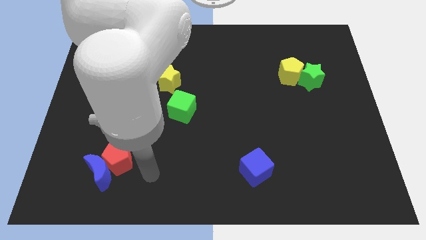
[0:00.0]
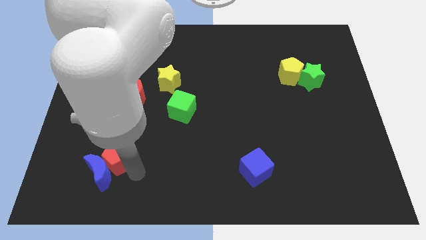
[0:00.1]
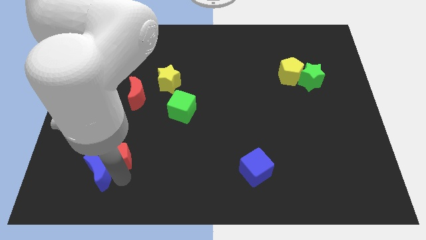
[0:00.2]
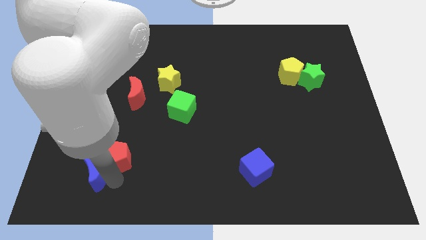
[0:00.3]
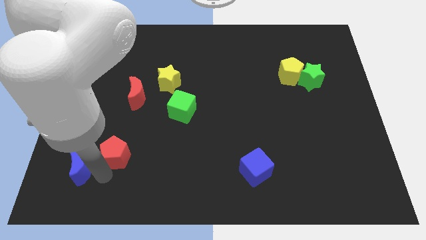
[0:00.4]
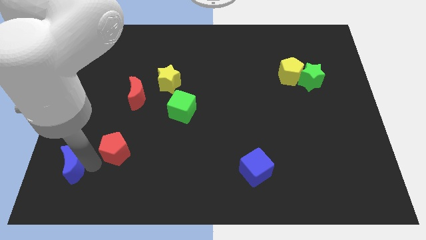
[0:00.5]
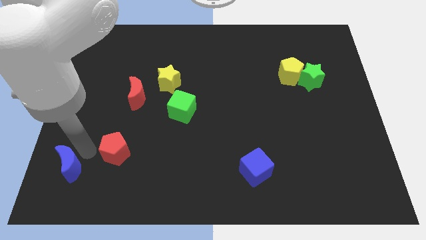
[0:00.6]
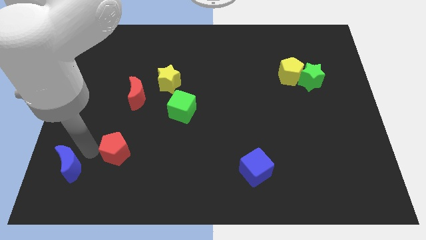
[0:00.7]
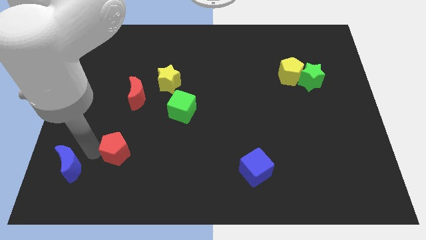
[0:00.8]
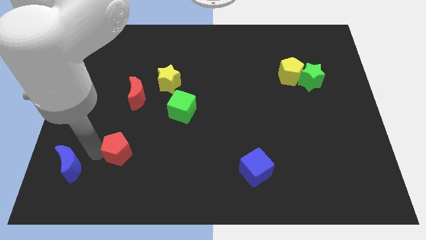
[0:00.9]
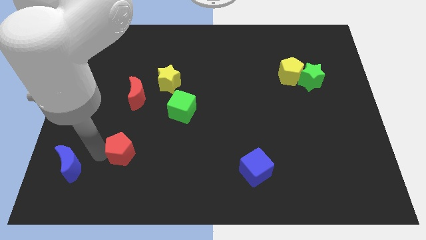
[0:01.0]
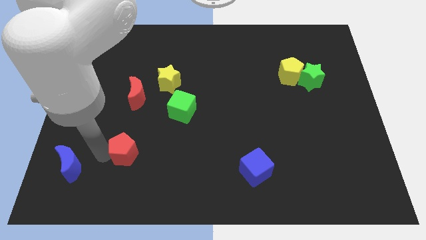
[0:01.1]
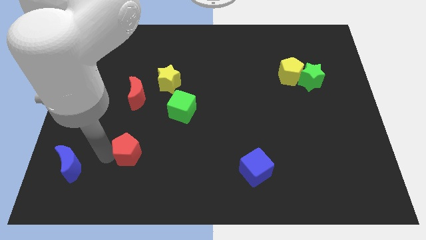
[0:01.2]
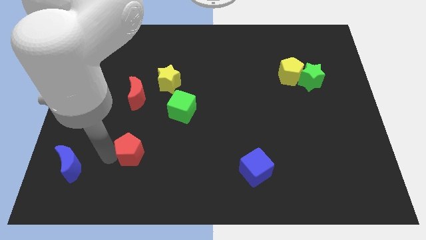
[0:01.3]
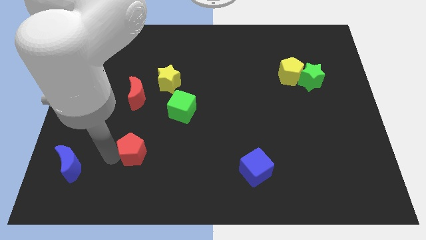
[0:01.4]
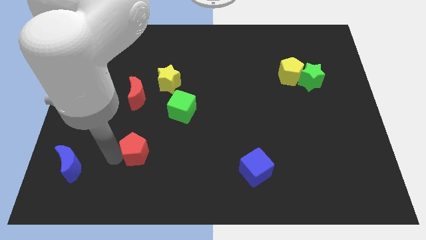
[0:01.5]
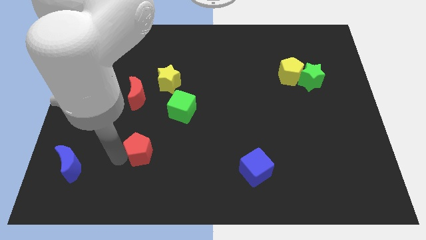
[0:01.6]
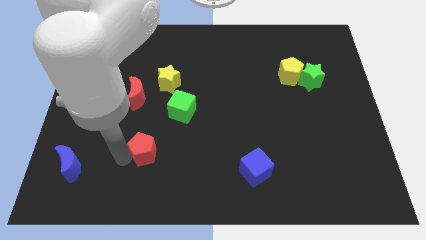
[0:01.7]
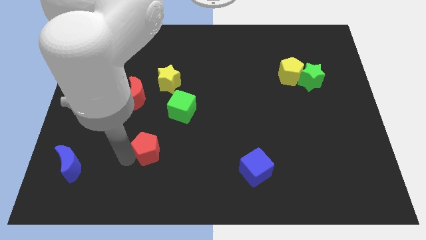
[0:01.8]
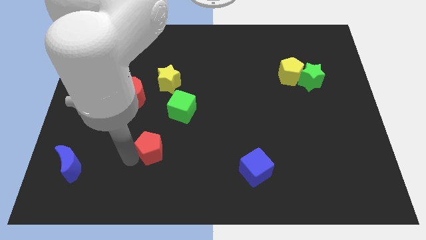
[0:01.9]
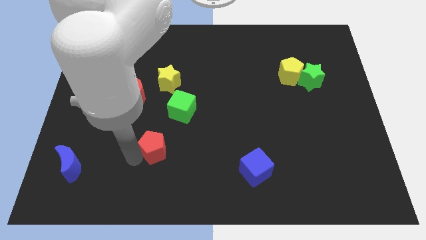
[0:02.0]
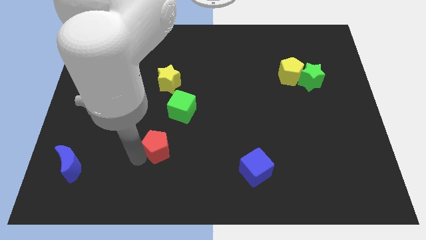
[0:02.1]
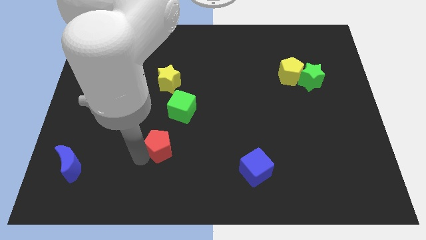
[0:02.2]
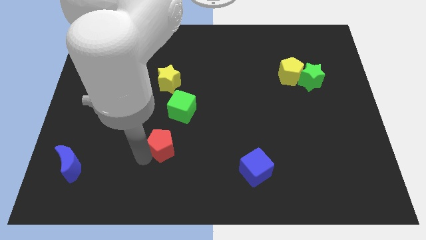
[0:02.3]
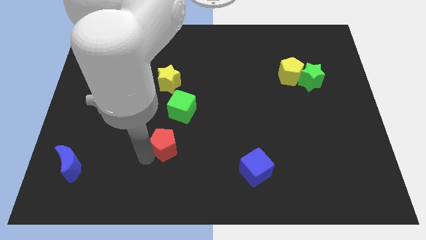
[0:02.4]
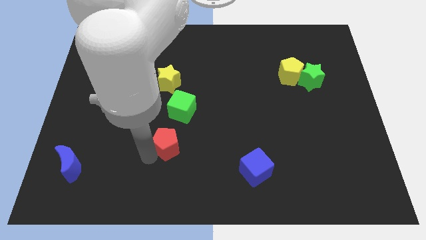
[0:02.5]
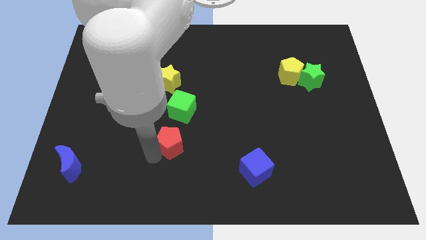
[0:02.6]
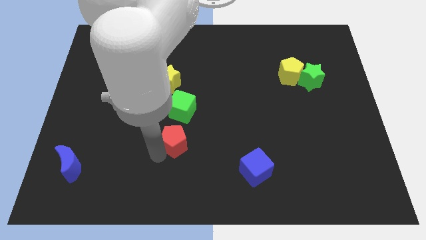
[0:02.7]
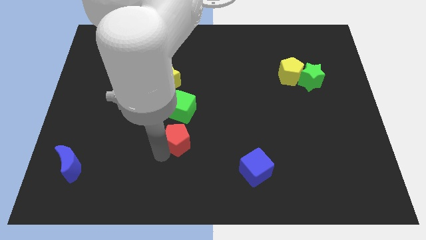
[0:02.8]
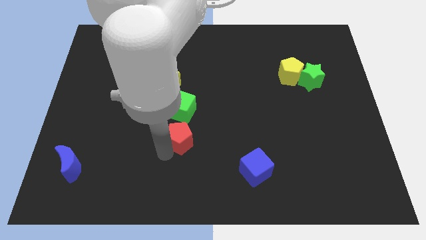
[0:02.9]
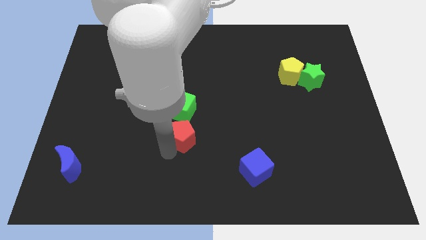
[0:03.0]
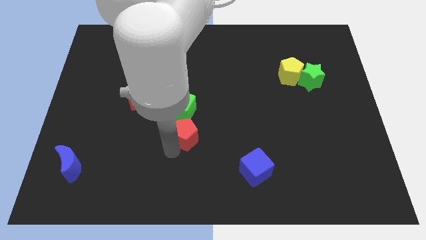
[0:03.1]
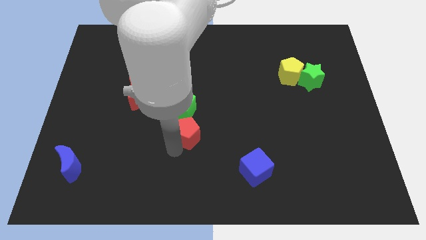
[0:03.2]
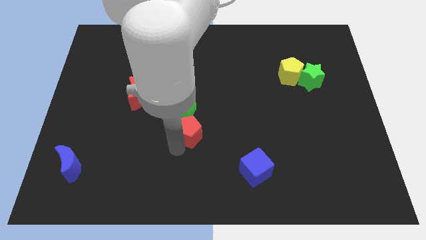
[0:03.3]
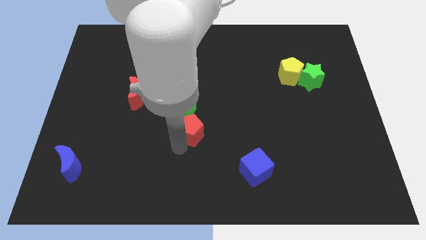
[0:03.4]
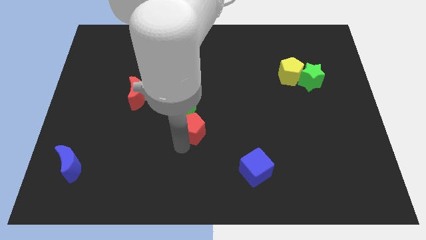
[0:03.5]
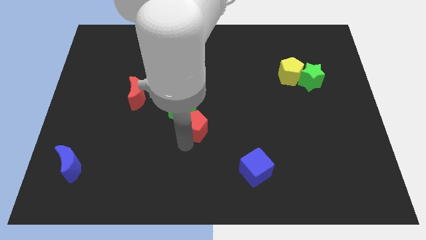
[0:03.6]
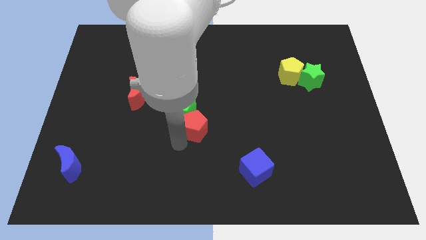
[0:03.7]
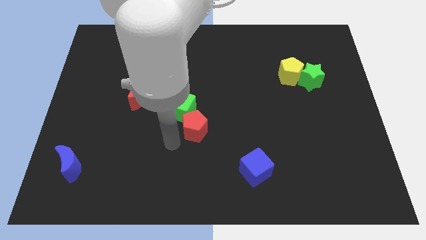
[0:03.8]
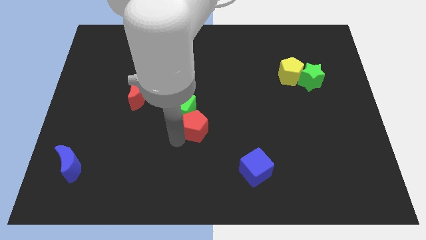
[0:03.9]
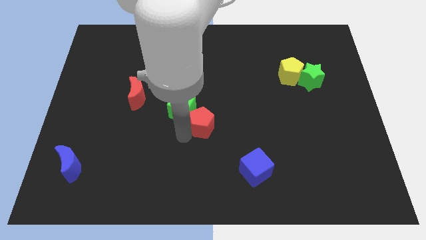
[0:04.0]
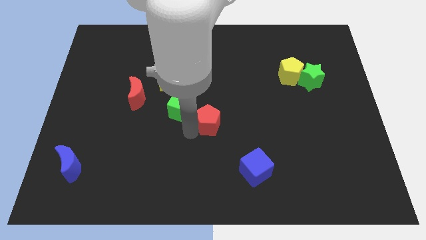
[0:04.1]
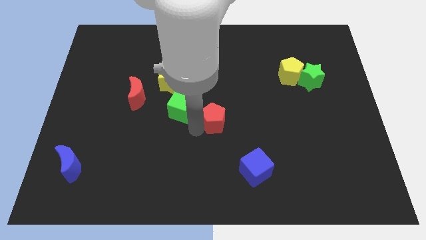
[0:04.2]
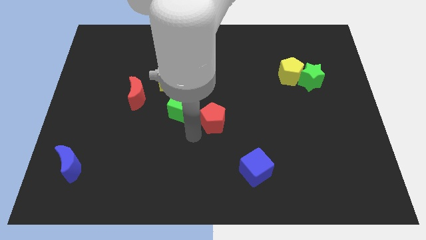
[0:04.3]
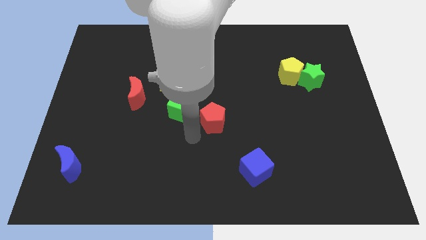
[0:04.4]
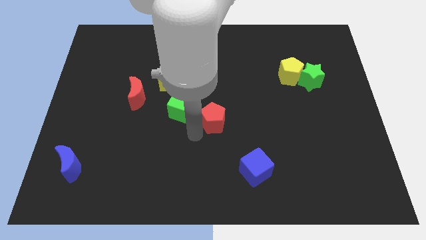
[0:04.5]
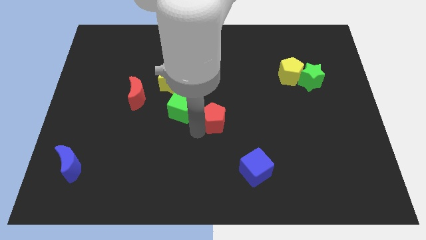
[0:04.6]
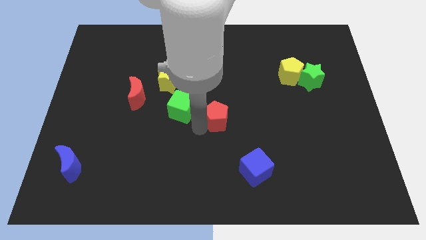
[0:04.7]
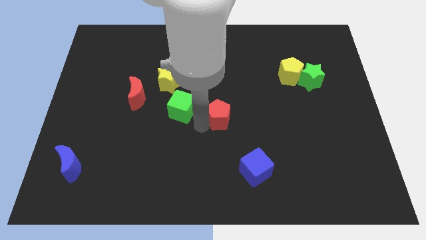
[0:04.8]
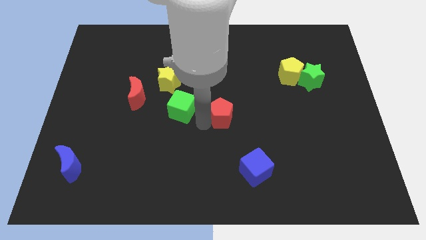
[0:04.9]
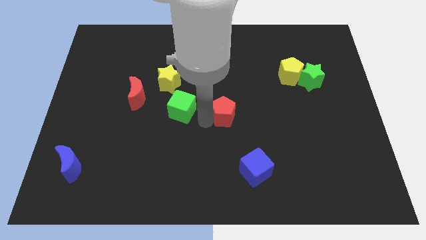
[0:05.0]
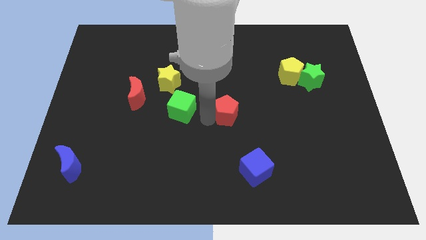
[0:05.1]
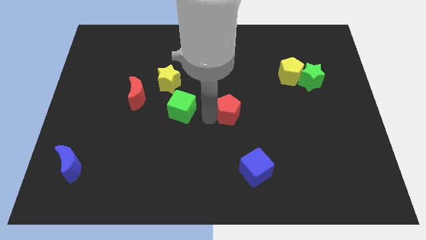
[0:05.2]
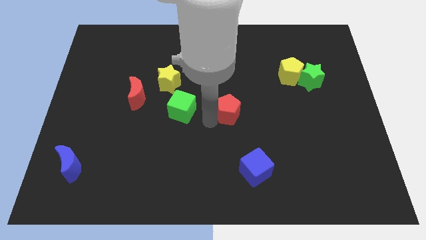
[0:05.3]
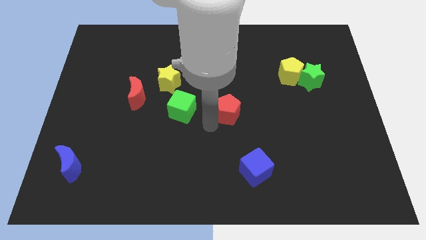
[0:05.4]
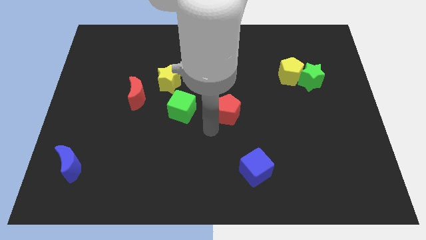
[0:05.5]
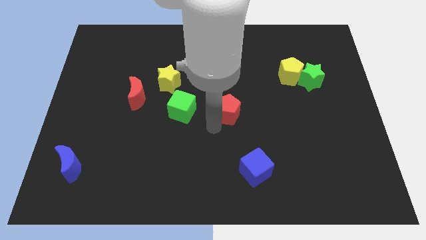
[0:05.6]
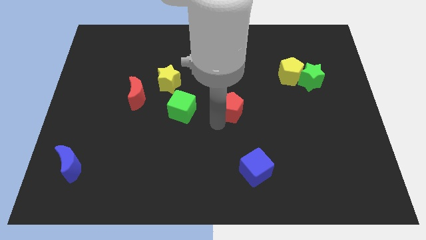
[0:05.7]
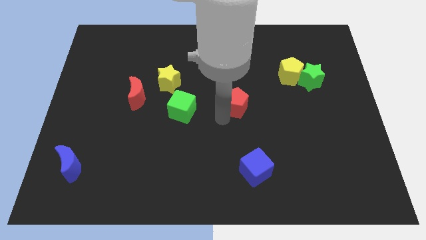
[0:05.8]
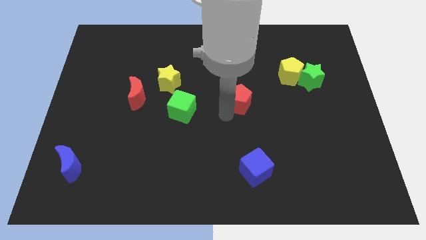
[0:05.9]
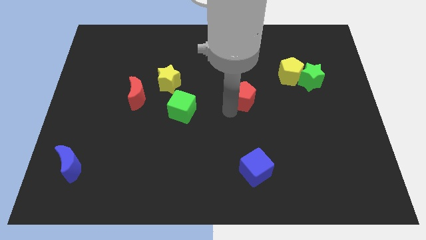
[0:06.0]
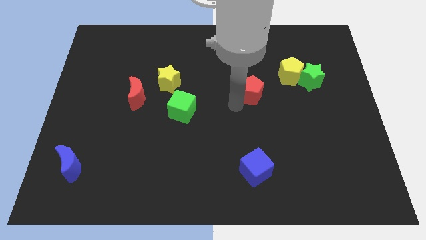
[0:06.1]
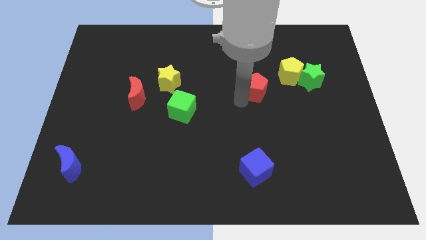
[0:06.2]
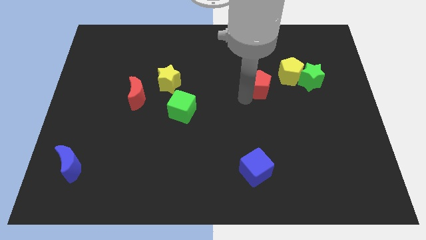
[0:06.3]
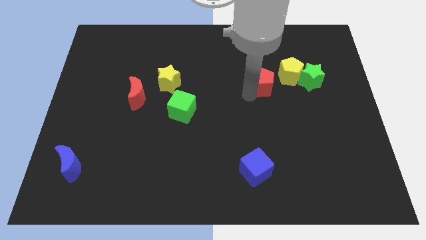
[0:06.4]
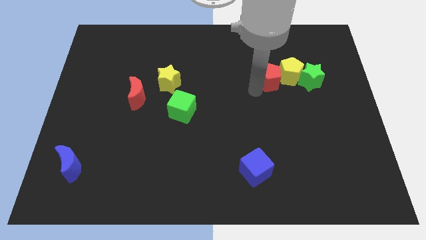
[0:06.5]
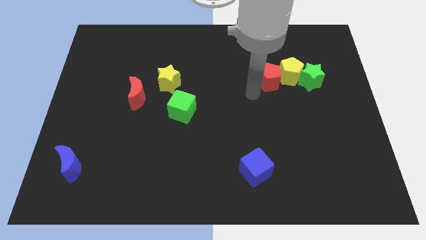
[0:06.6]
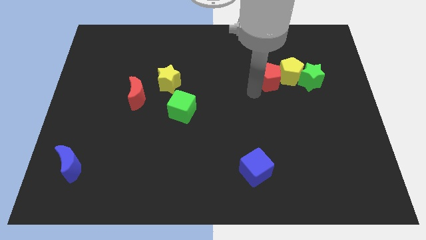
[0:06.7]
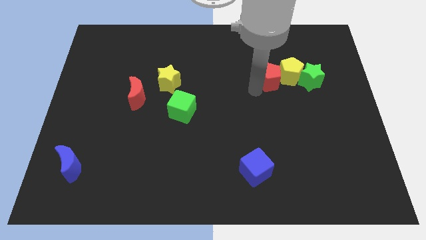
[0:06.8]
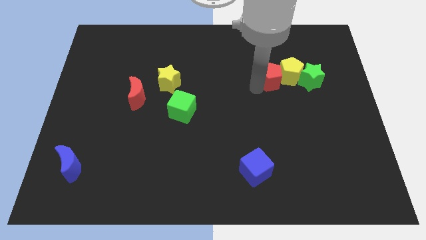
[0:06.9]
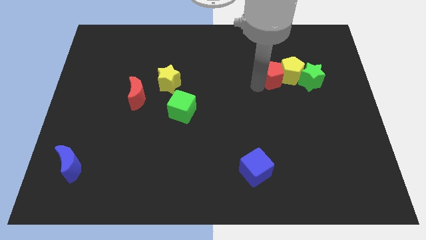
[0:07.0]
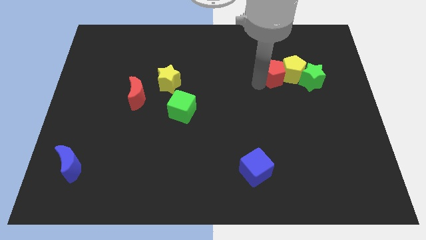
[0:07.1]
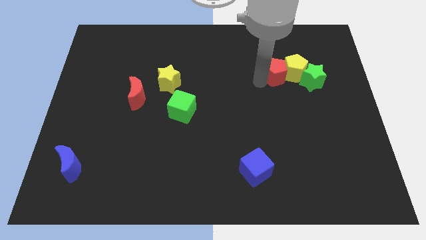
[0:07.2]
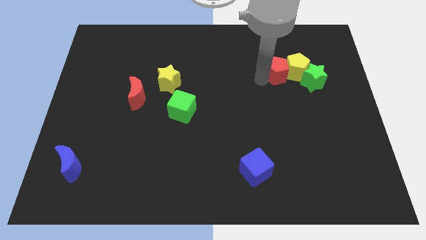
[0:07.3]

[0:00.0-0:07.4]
put the red pentagon to the top left of the green star
